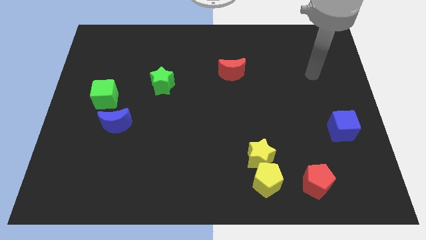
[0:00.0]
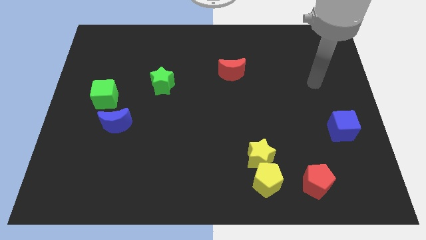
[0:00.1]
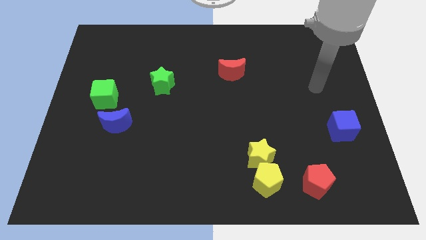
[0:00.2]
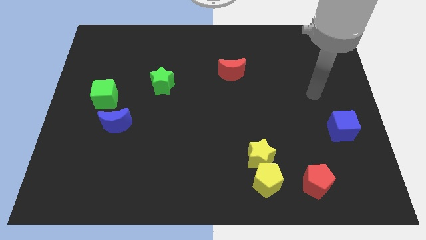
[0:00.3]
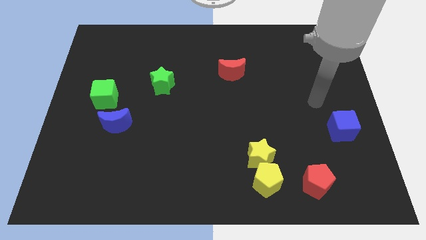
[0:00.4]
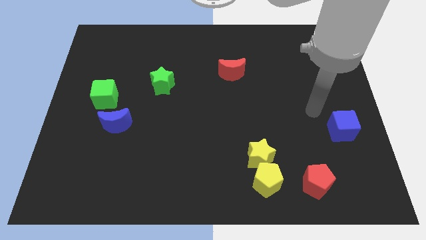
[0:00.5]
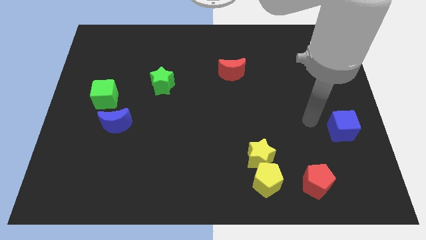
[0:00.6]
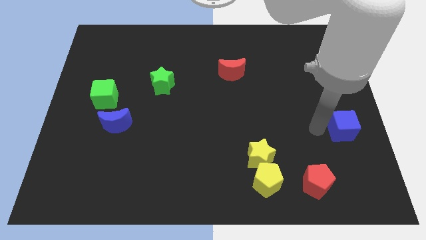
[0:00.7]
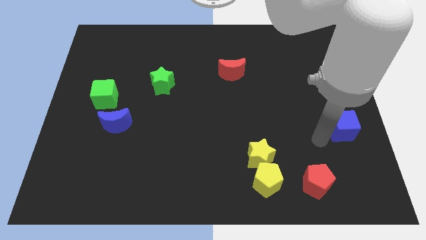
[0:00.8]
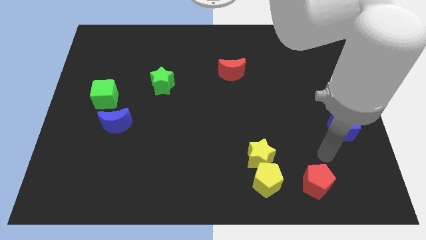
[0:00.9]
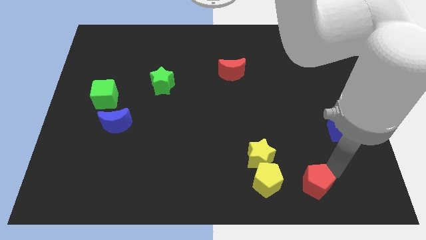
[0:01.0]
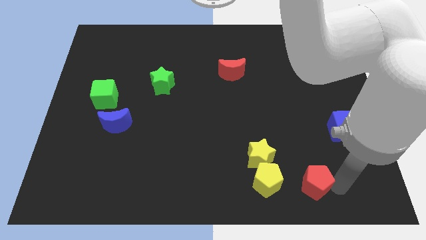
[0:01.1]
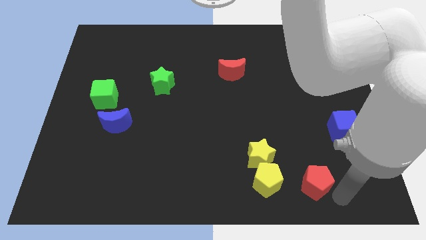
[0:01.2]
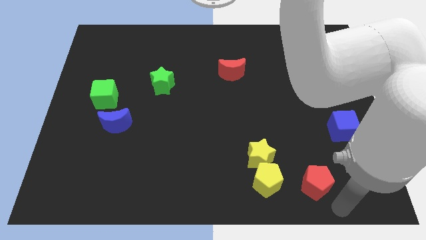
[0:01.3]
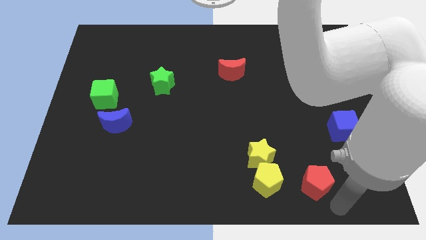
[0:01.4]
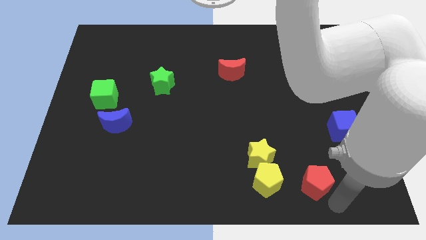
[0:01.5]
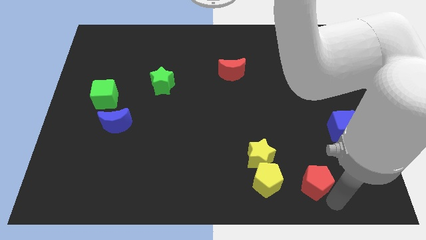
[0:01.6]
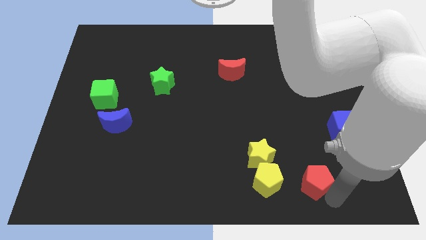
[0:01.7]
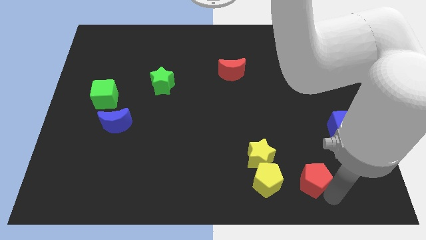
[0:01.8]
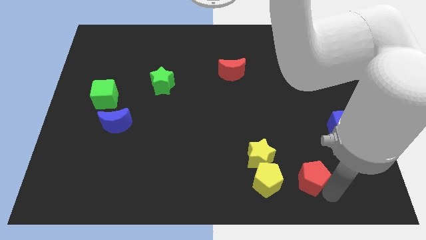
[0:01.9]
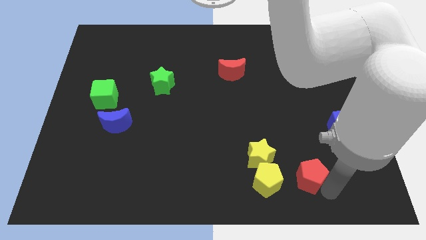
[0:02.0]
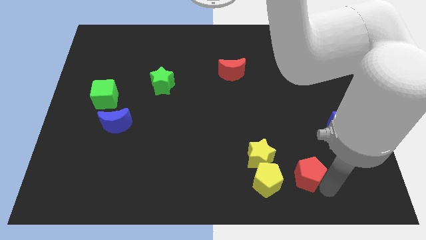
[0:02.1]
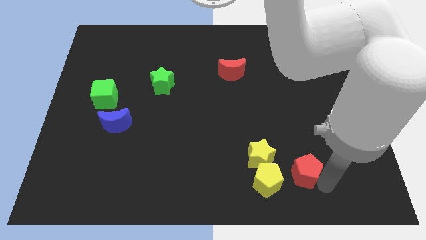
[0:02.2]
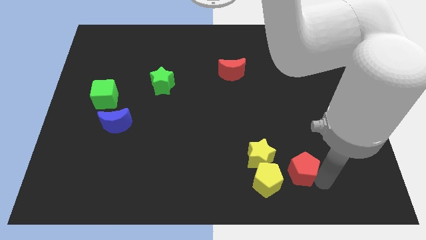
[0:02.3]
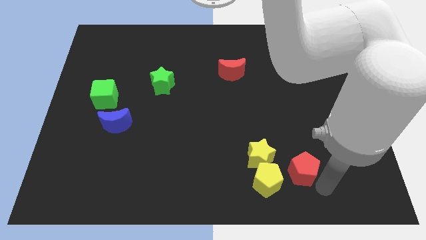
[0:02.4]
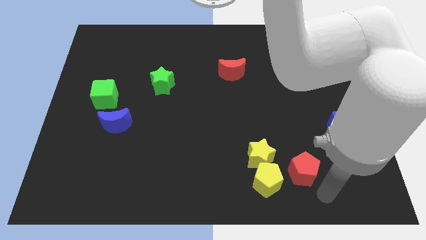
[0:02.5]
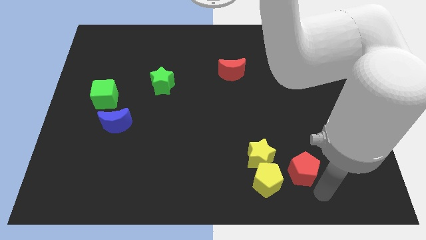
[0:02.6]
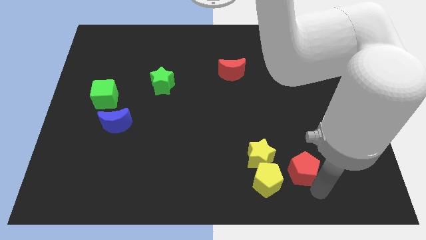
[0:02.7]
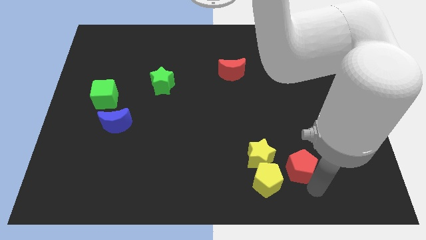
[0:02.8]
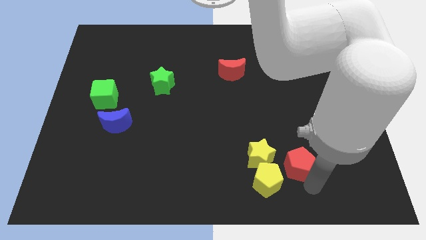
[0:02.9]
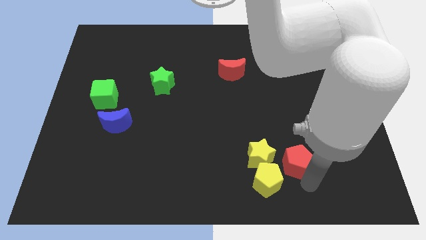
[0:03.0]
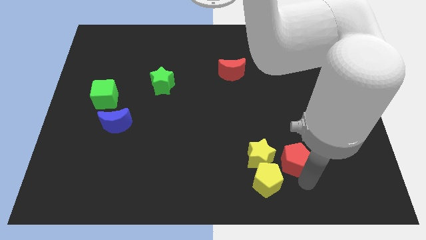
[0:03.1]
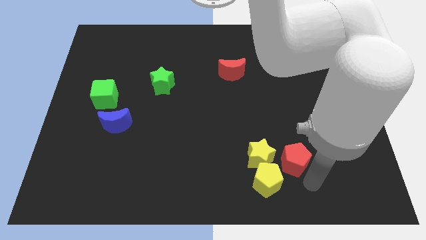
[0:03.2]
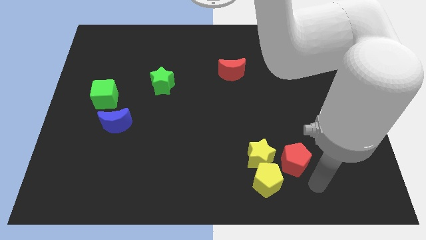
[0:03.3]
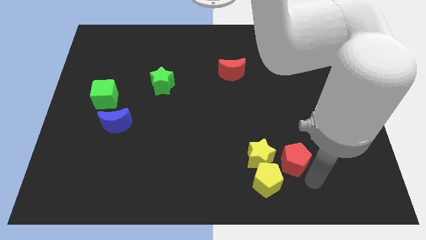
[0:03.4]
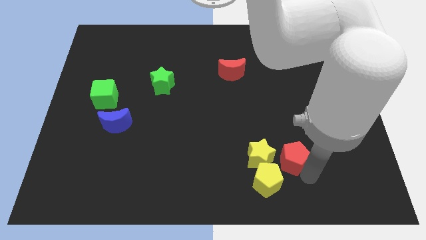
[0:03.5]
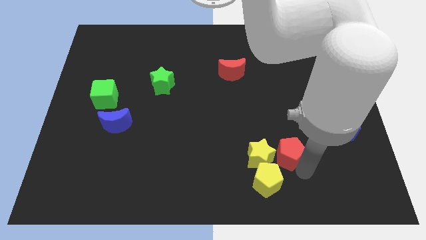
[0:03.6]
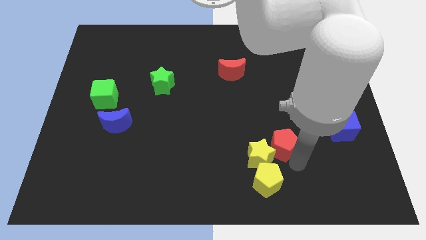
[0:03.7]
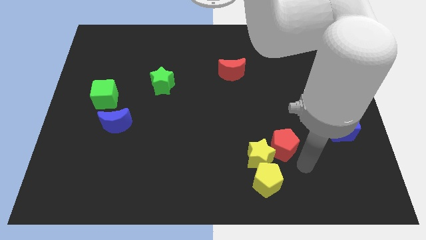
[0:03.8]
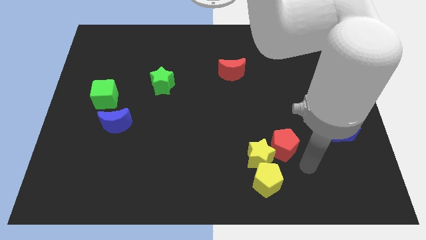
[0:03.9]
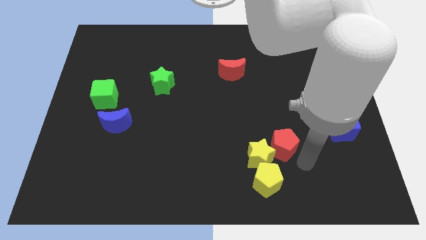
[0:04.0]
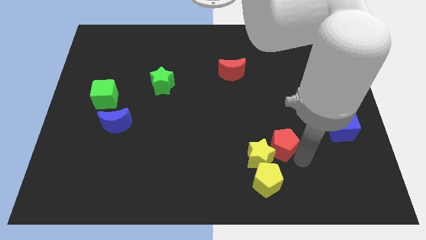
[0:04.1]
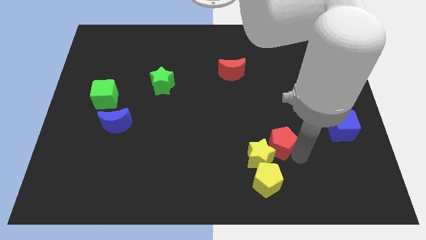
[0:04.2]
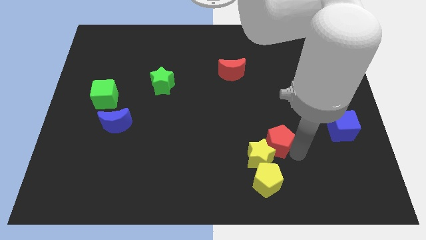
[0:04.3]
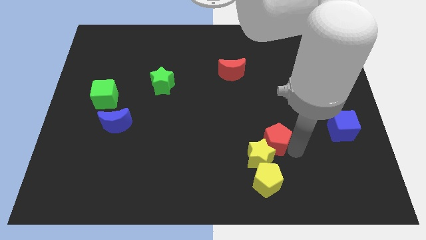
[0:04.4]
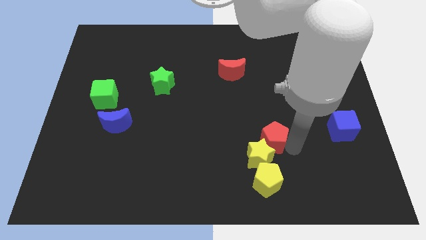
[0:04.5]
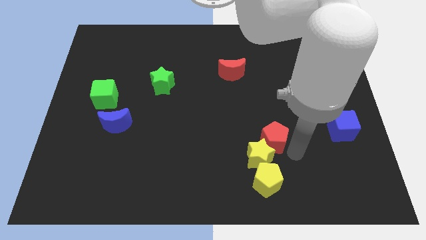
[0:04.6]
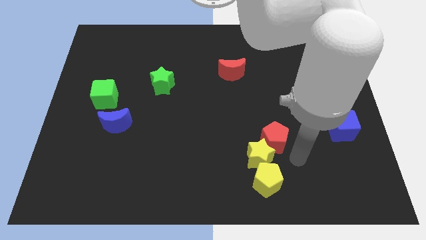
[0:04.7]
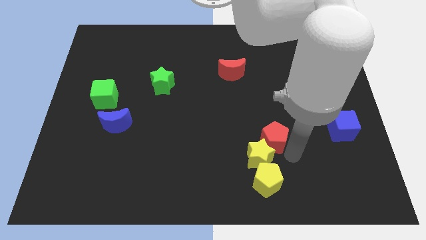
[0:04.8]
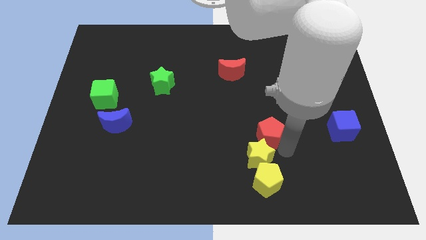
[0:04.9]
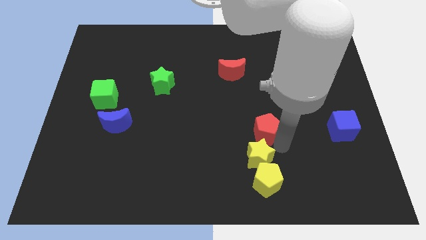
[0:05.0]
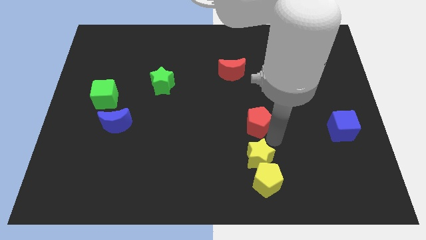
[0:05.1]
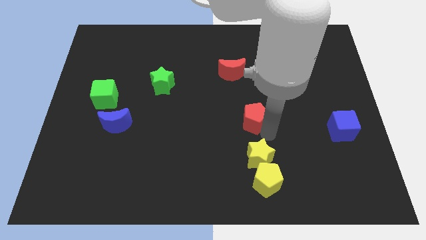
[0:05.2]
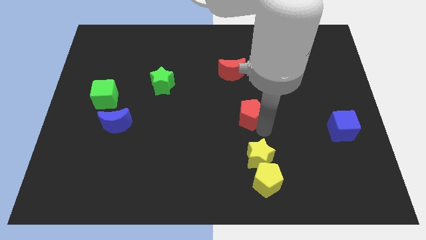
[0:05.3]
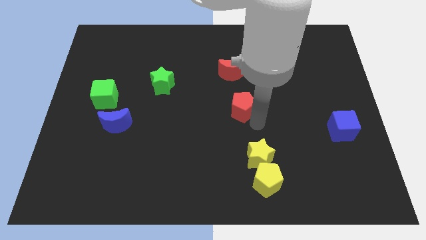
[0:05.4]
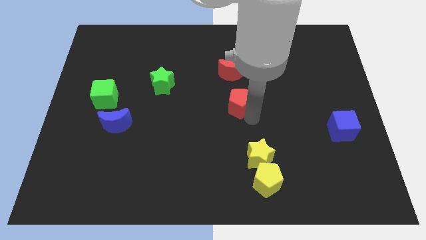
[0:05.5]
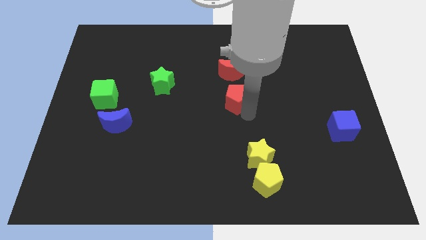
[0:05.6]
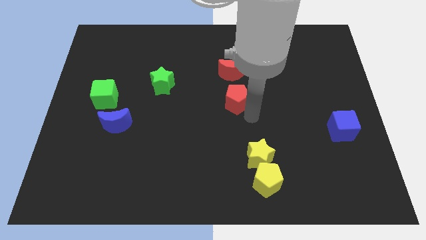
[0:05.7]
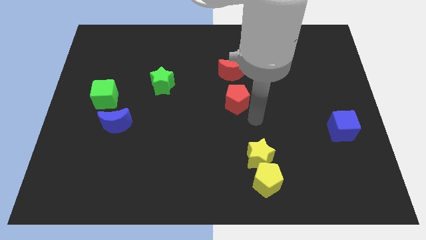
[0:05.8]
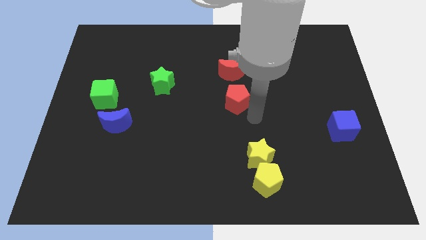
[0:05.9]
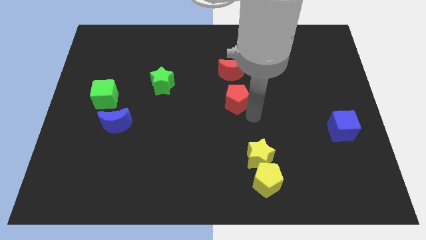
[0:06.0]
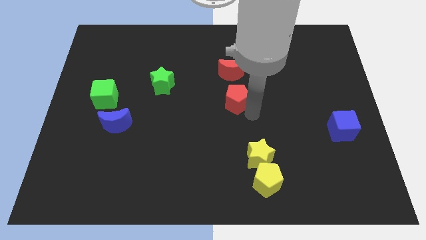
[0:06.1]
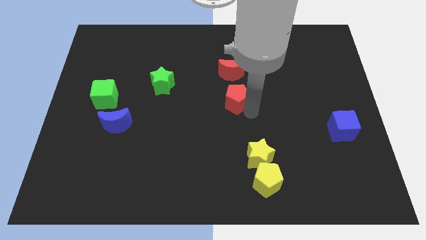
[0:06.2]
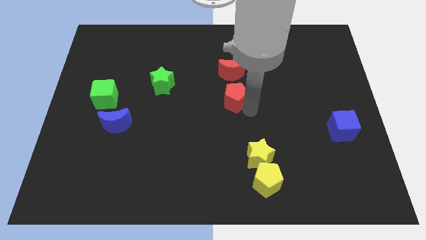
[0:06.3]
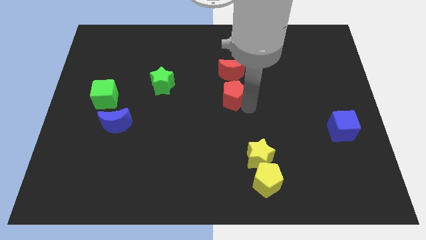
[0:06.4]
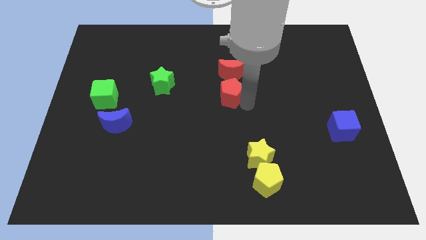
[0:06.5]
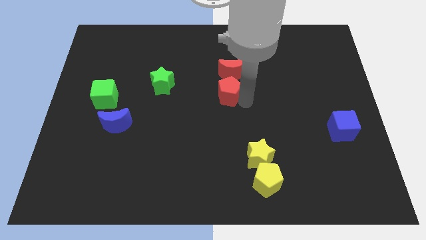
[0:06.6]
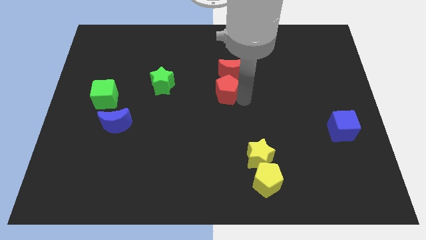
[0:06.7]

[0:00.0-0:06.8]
push the red pentagon right of the green star
